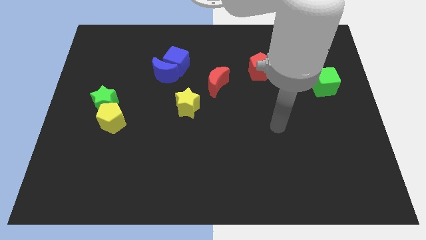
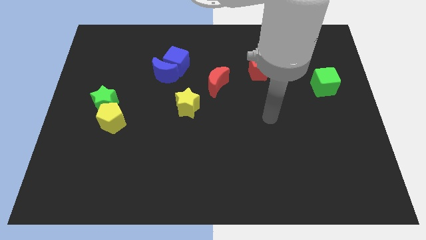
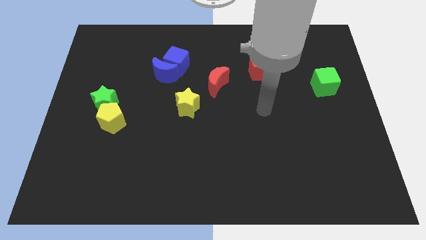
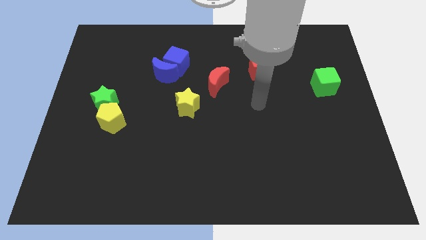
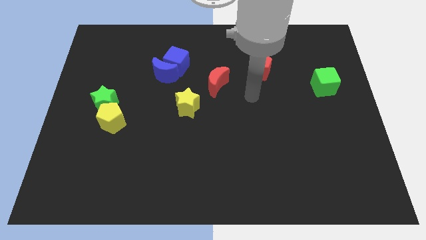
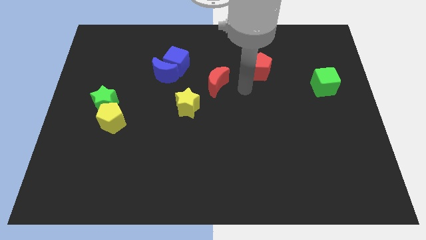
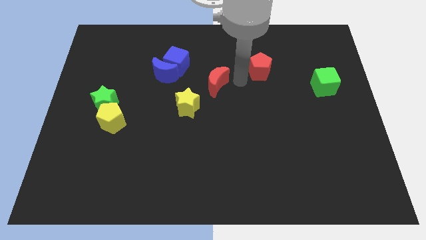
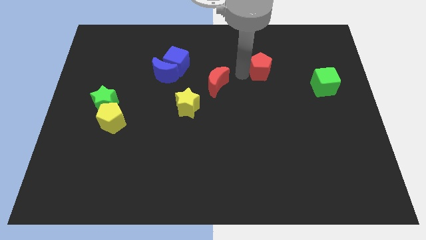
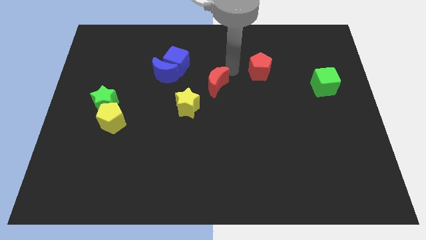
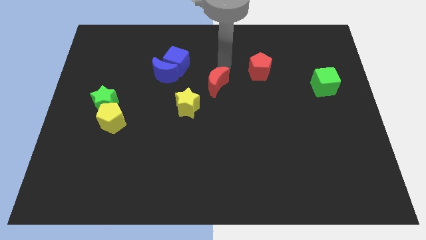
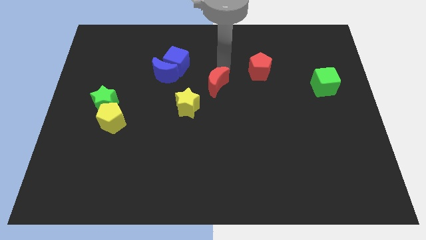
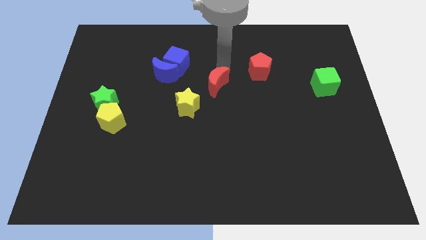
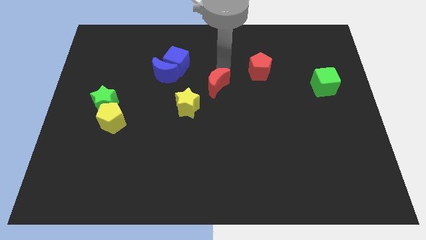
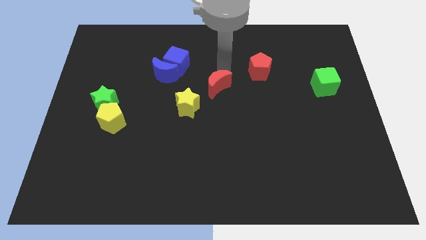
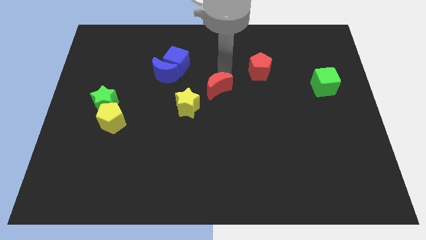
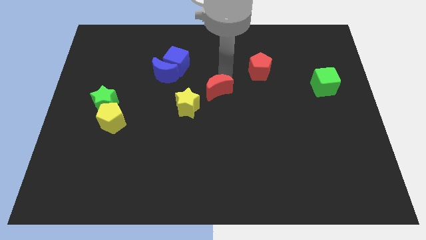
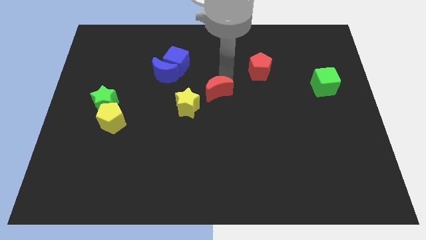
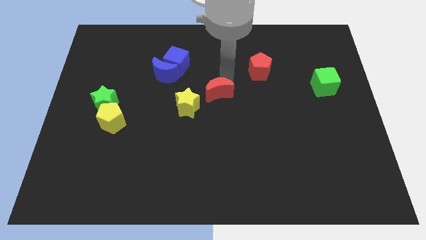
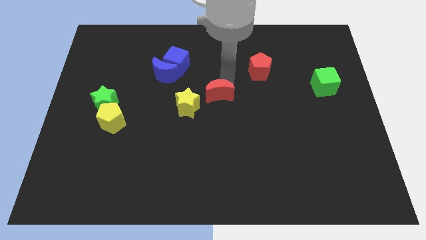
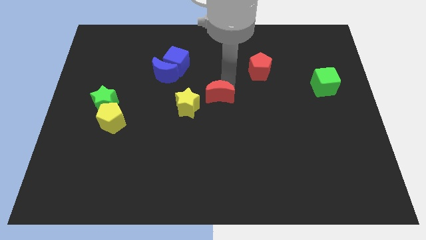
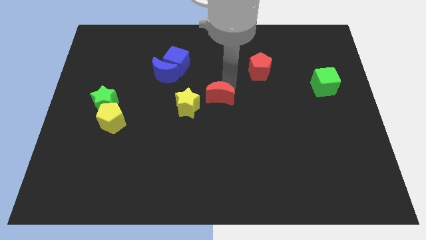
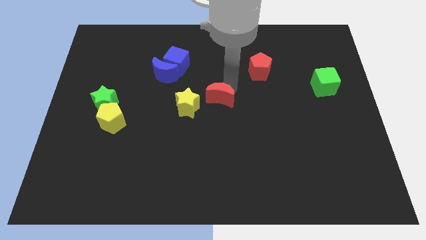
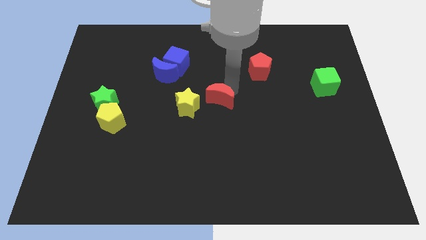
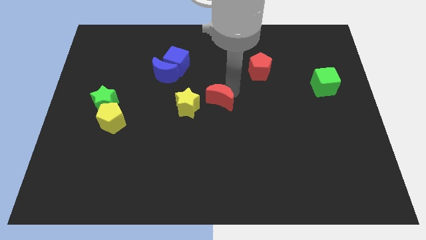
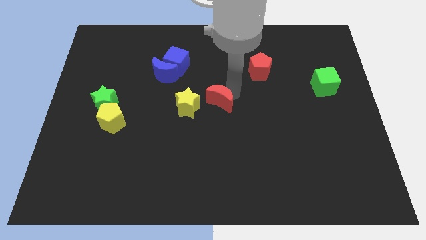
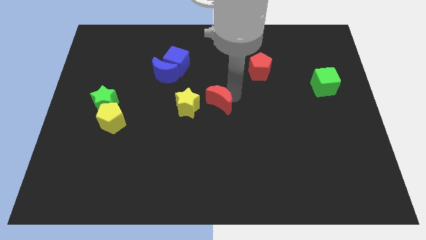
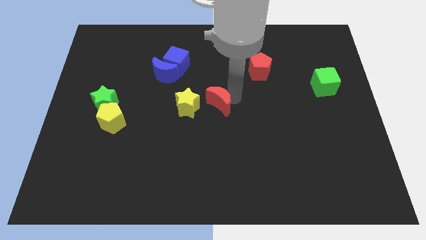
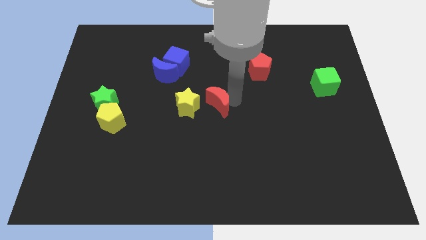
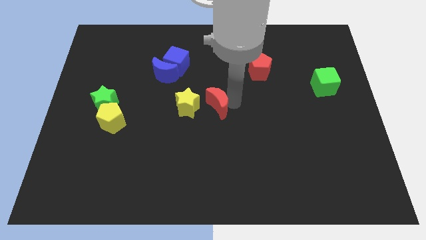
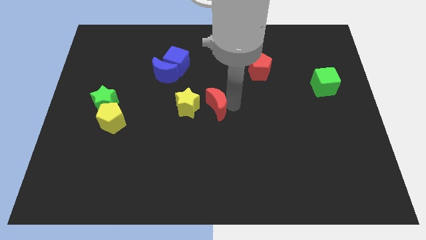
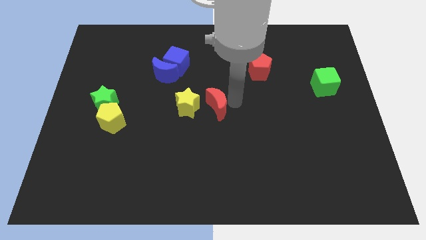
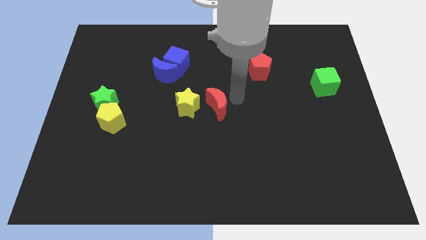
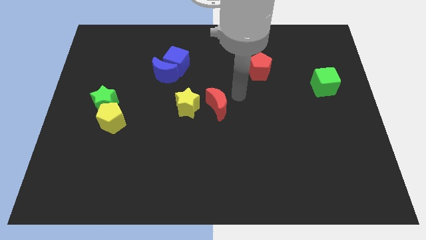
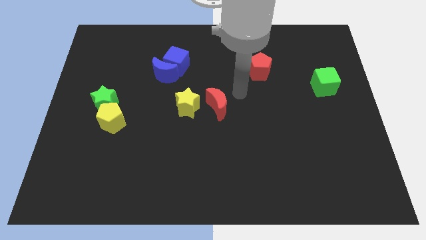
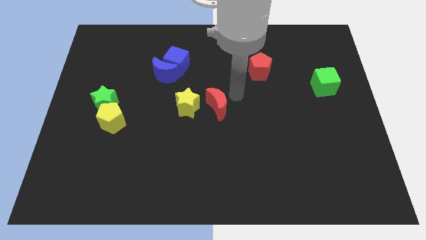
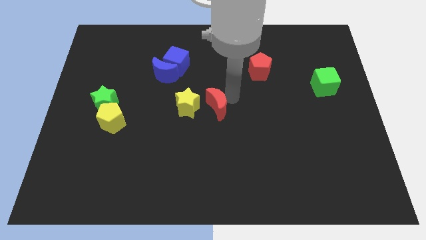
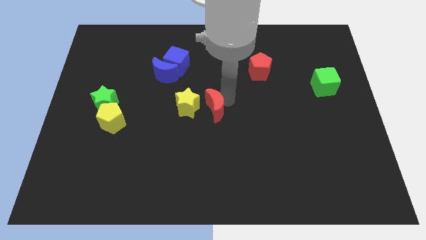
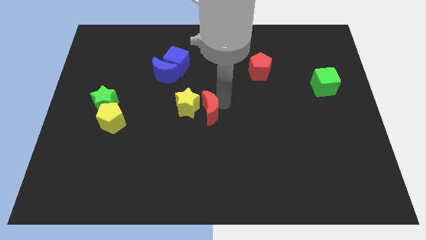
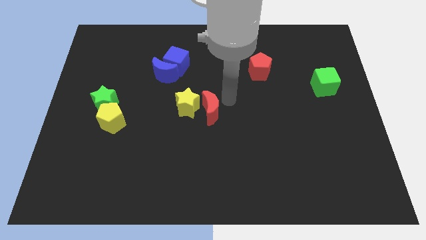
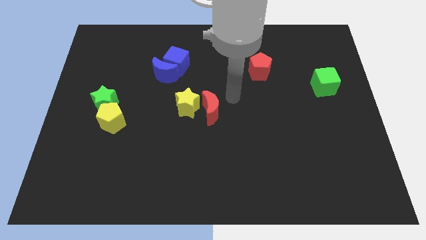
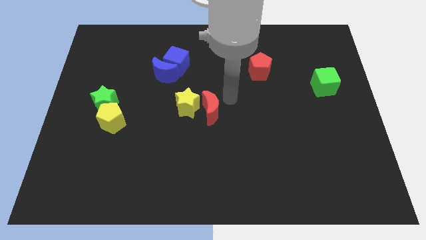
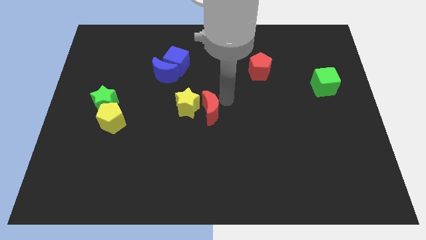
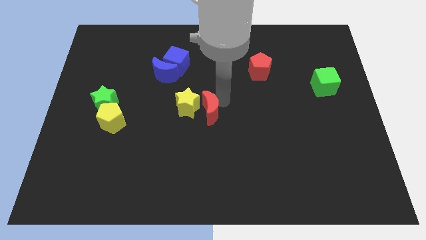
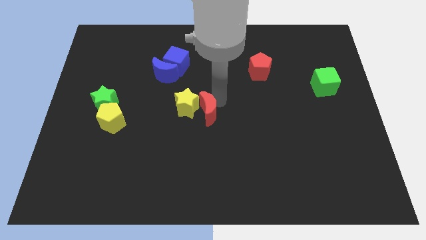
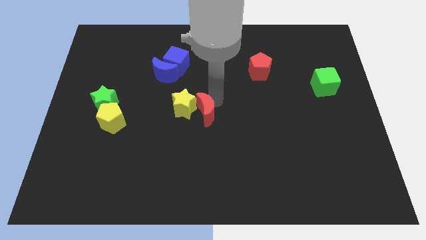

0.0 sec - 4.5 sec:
slightly move the red moon downwards and left

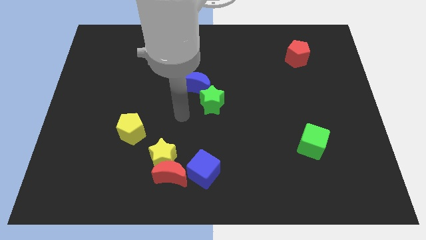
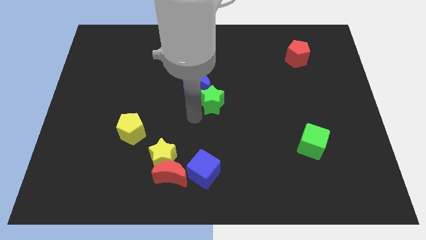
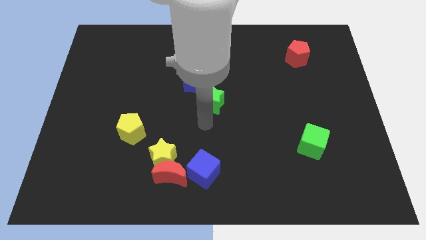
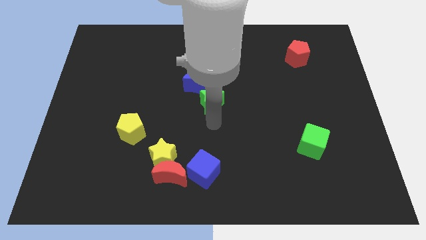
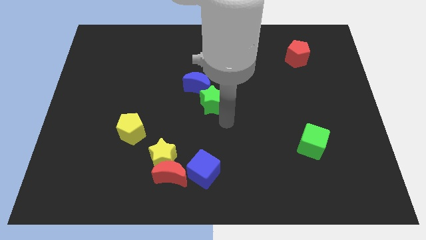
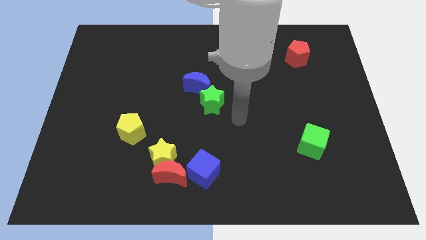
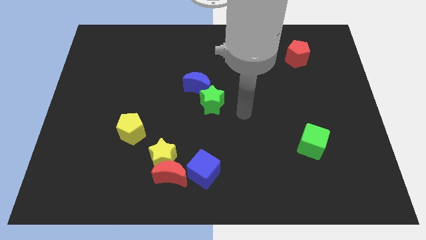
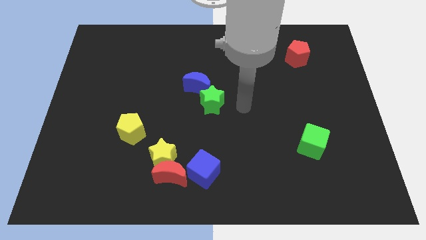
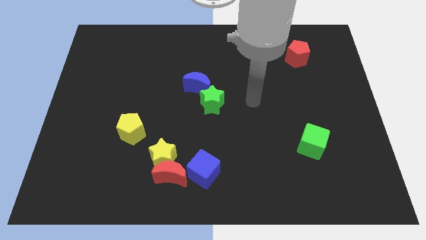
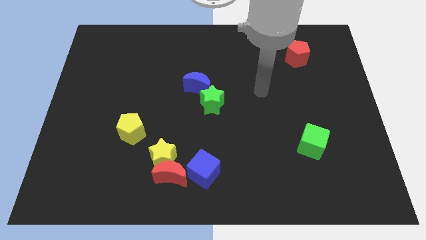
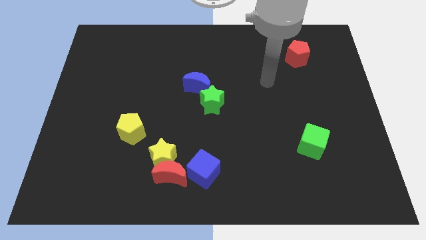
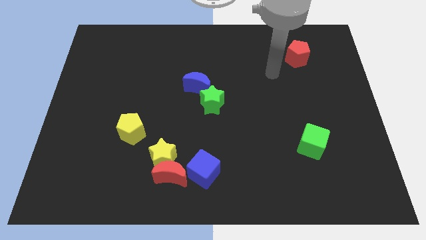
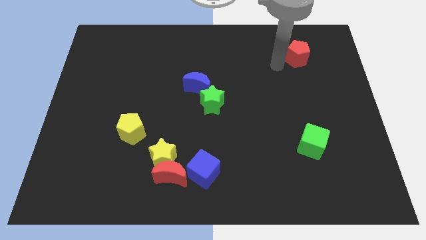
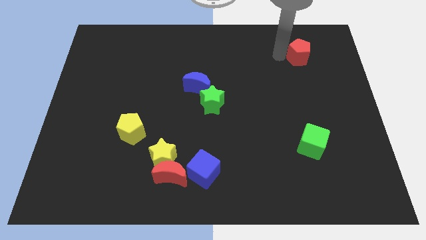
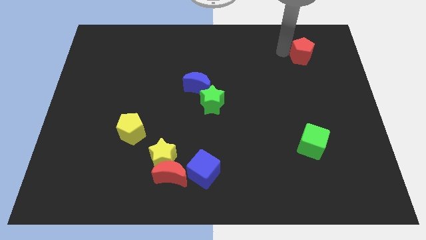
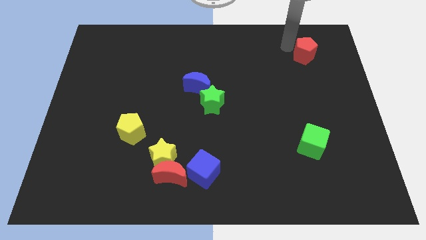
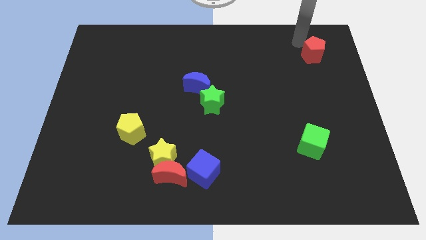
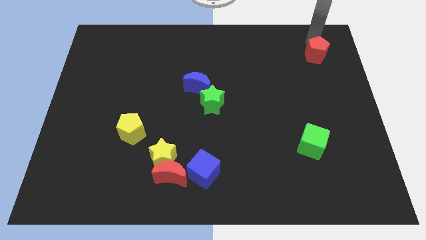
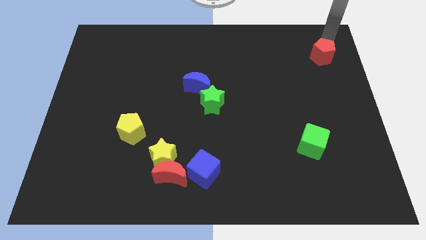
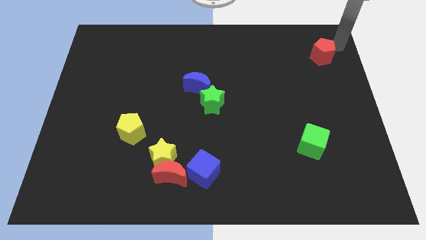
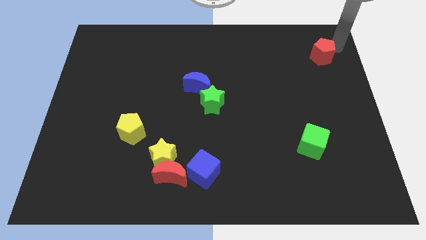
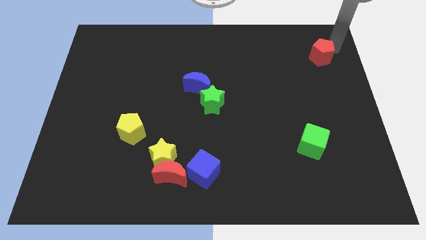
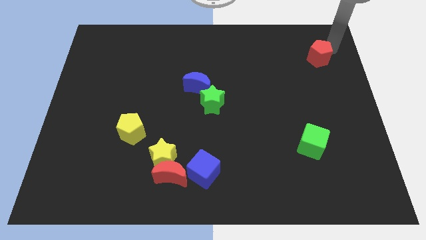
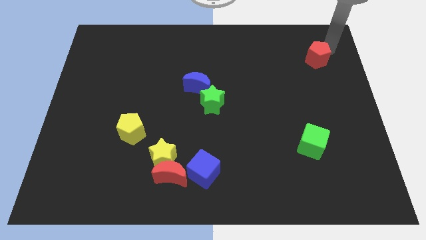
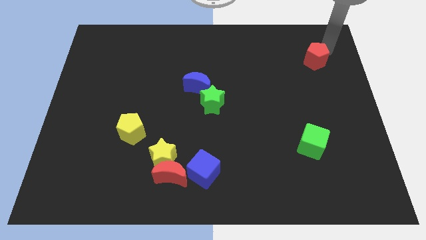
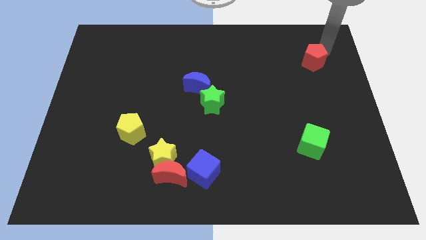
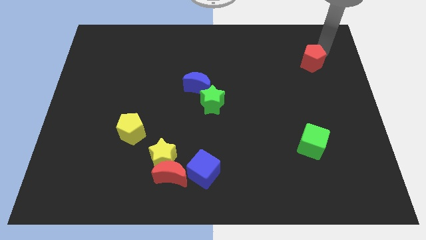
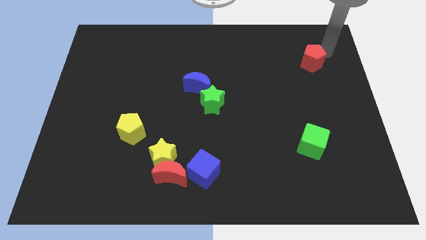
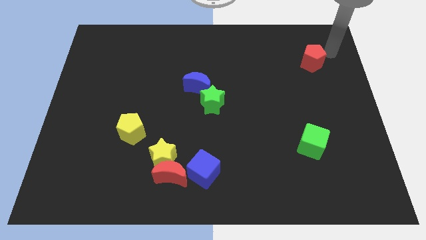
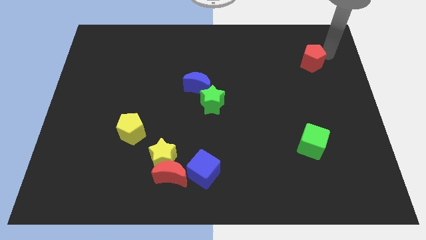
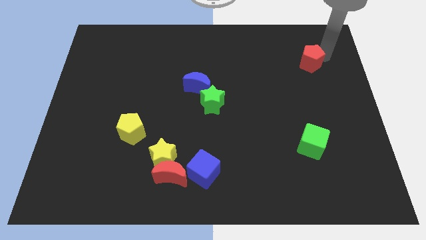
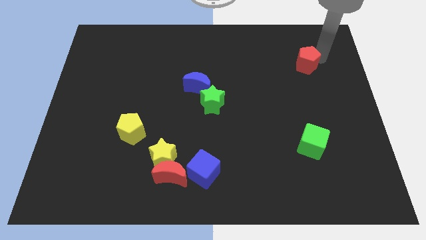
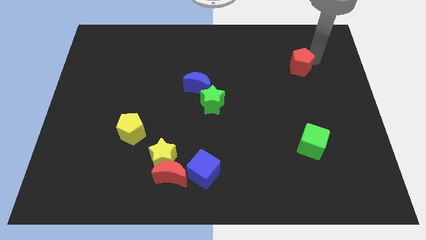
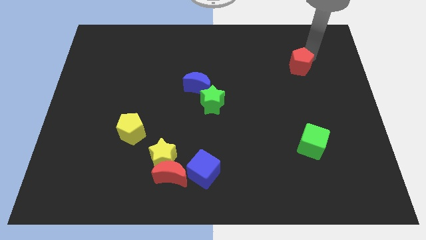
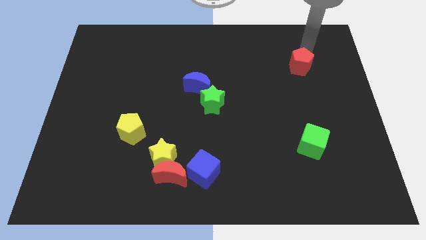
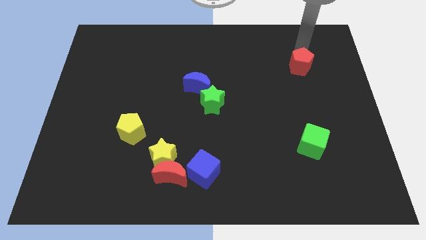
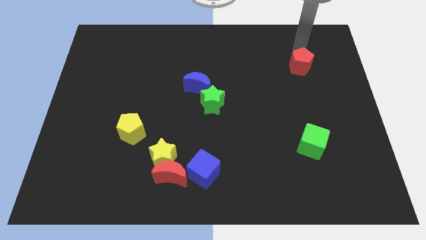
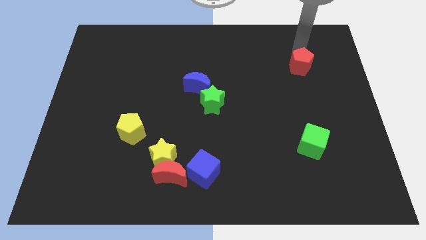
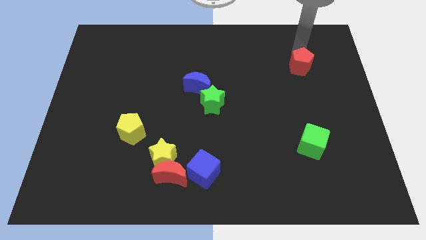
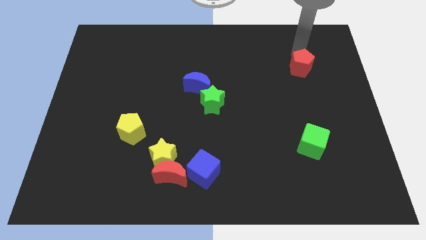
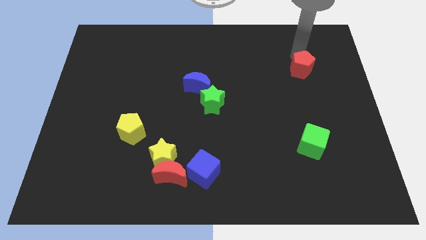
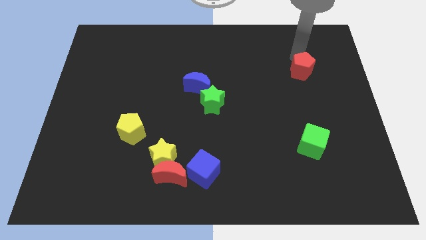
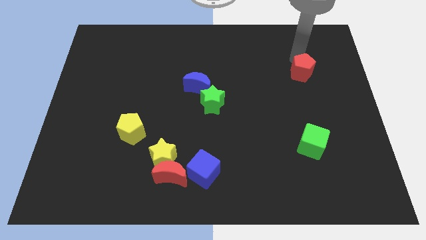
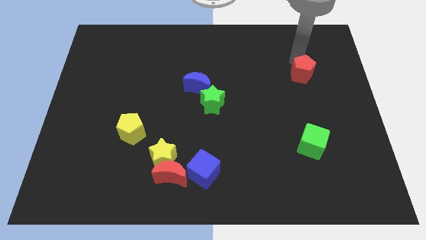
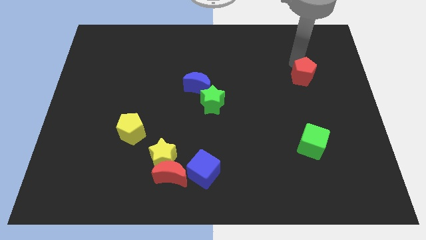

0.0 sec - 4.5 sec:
slightly move the red pentagon downwards
